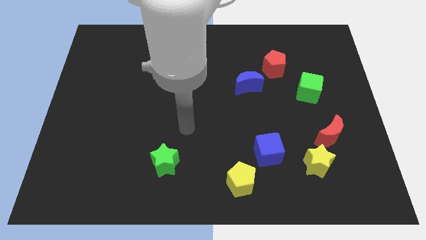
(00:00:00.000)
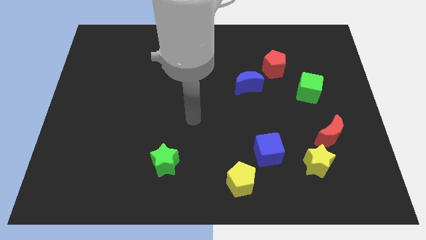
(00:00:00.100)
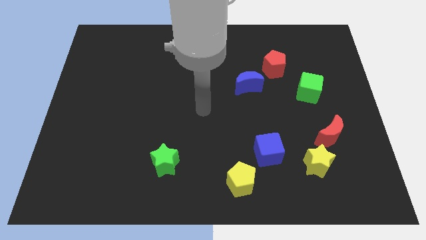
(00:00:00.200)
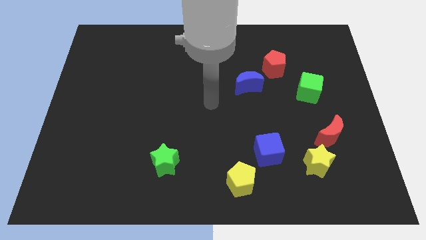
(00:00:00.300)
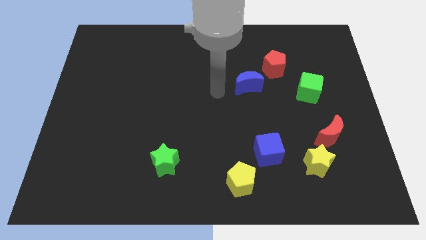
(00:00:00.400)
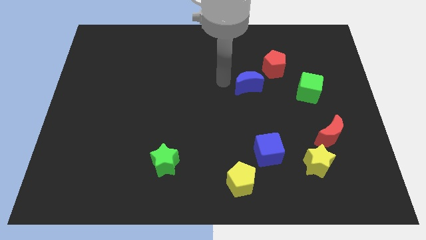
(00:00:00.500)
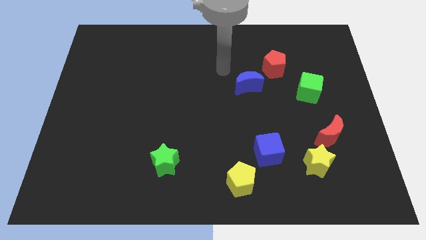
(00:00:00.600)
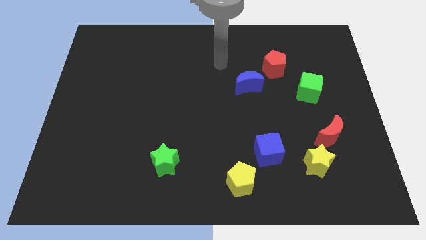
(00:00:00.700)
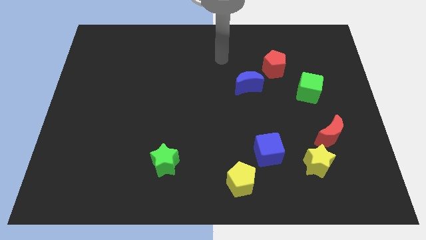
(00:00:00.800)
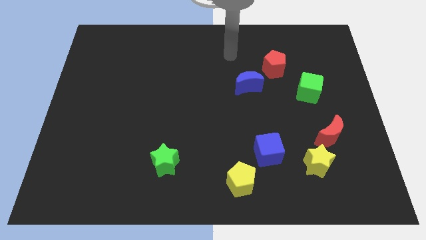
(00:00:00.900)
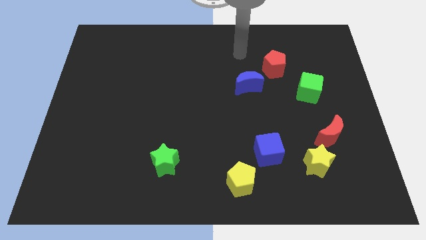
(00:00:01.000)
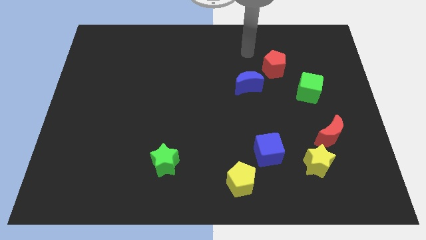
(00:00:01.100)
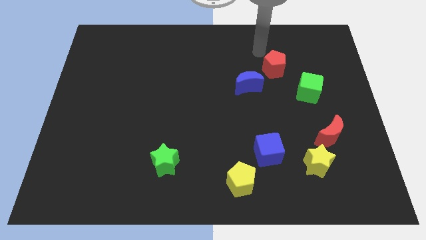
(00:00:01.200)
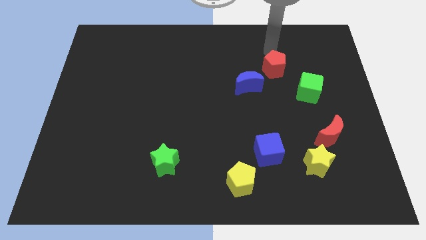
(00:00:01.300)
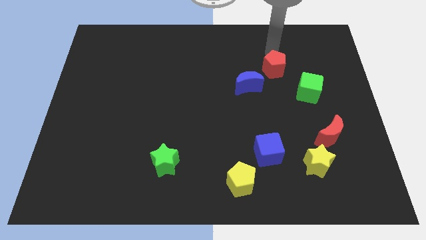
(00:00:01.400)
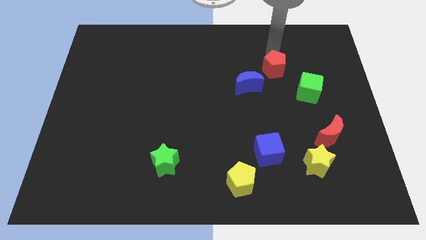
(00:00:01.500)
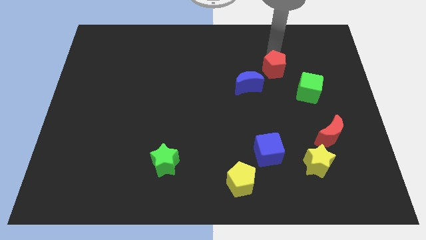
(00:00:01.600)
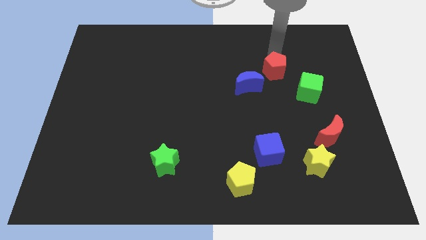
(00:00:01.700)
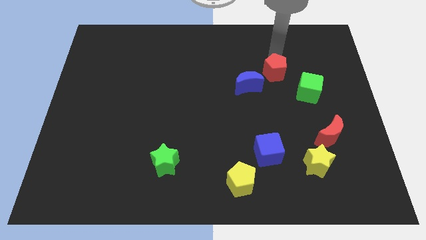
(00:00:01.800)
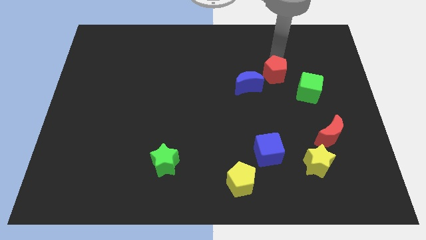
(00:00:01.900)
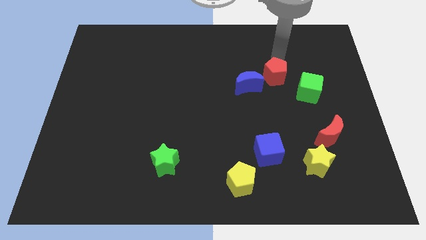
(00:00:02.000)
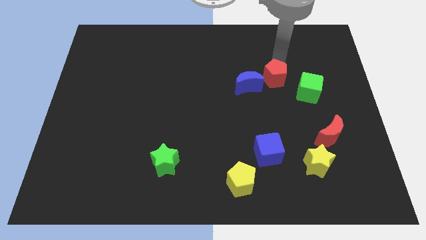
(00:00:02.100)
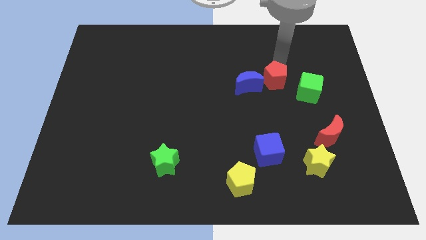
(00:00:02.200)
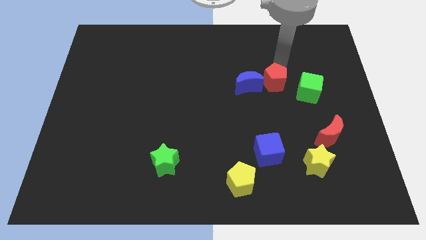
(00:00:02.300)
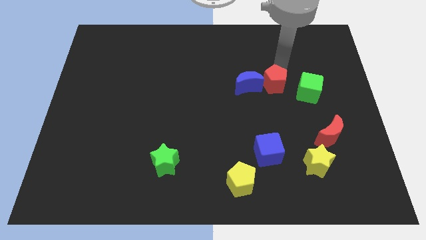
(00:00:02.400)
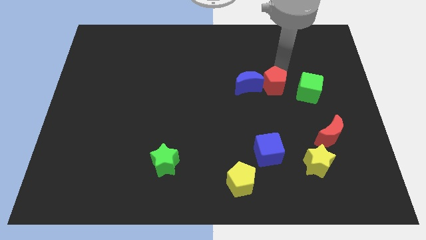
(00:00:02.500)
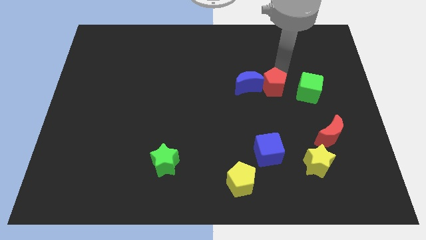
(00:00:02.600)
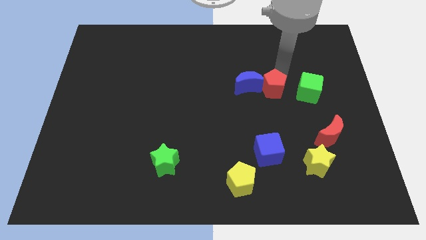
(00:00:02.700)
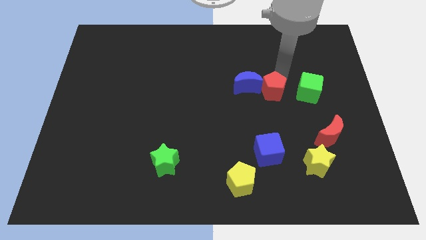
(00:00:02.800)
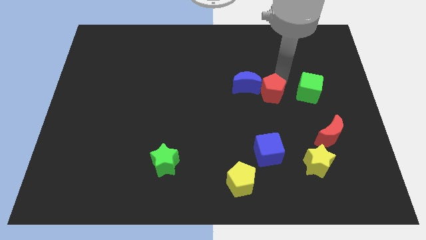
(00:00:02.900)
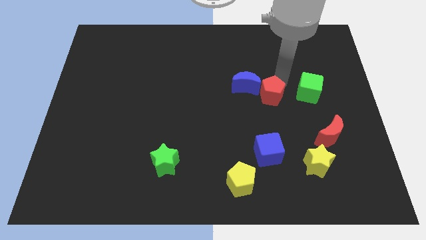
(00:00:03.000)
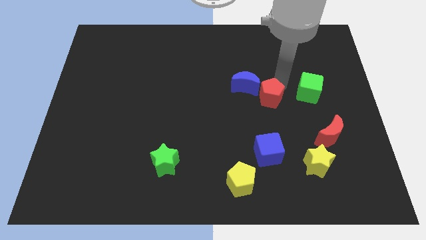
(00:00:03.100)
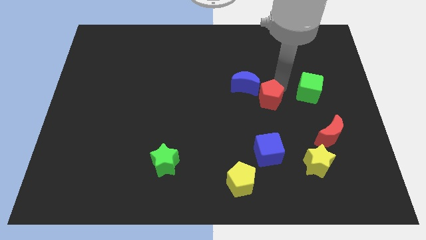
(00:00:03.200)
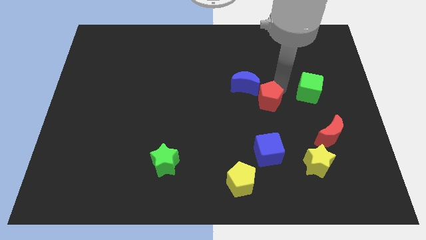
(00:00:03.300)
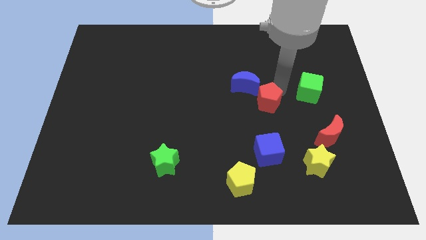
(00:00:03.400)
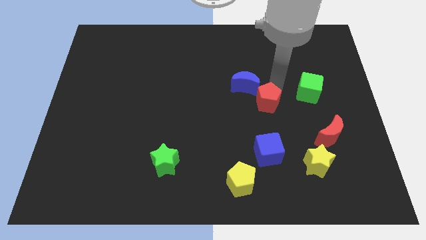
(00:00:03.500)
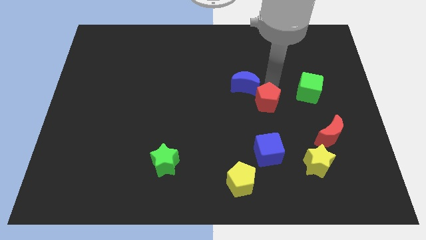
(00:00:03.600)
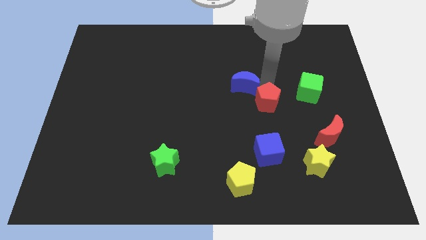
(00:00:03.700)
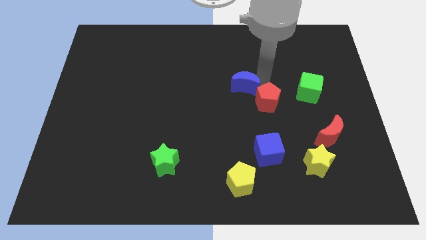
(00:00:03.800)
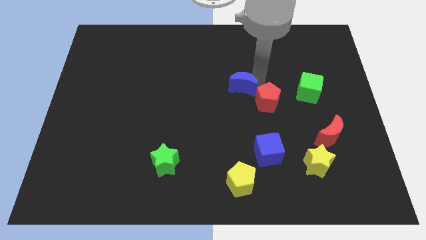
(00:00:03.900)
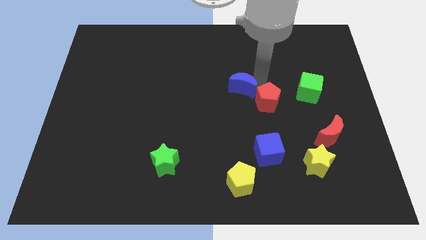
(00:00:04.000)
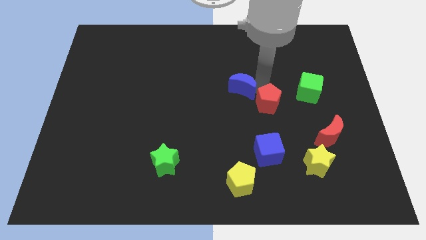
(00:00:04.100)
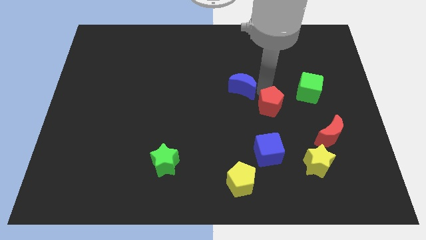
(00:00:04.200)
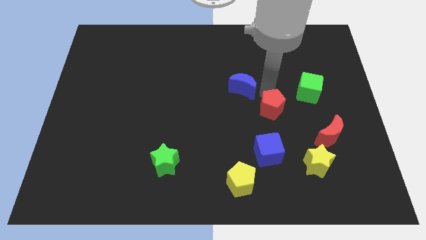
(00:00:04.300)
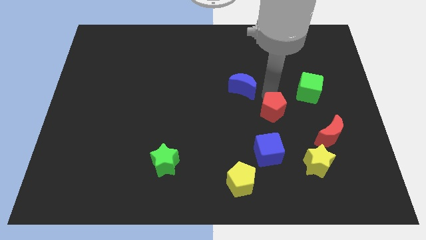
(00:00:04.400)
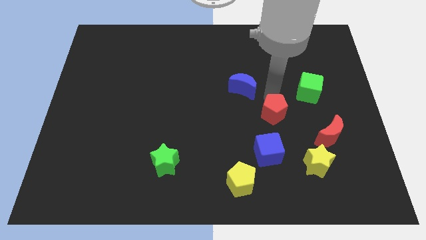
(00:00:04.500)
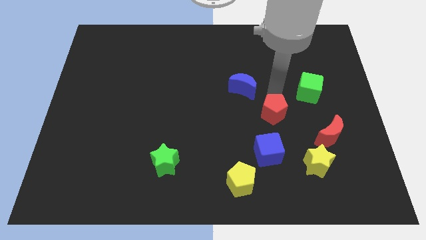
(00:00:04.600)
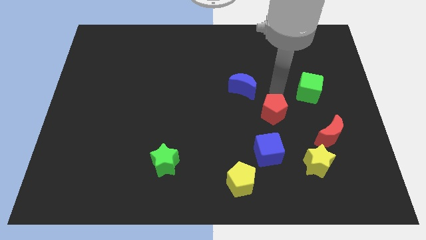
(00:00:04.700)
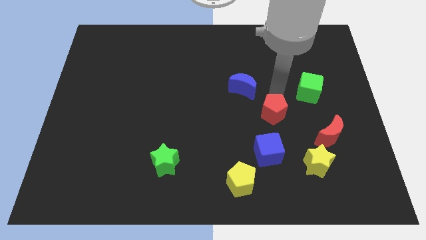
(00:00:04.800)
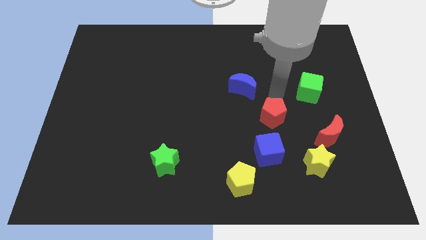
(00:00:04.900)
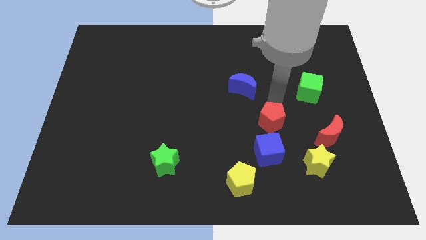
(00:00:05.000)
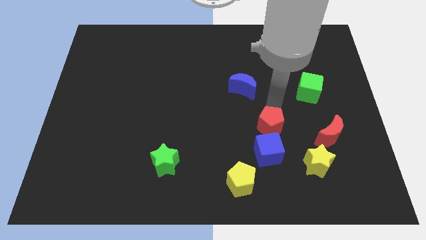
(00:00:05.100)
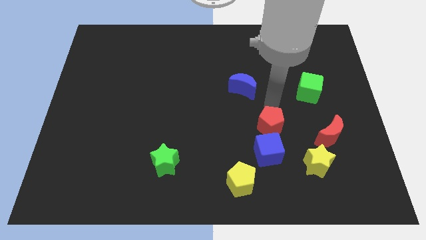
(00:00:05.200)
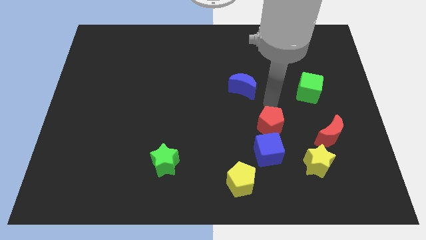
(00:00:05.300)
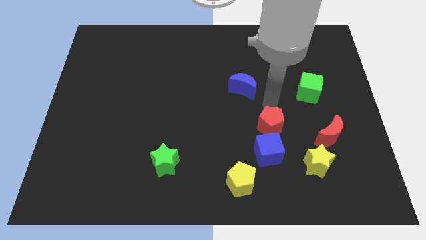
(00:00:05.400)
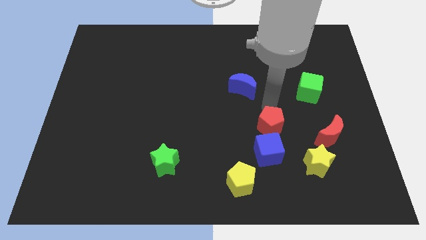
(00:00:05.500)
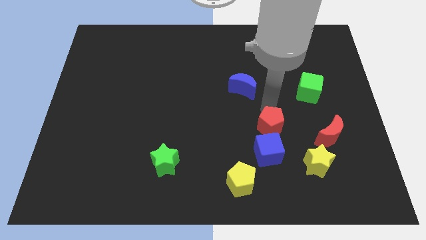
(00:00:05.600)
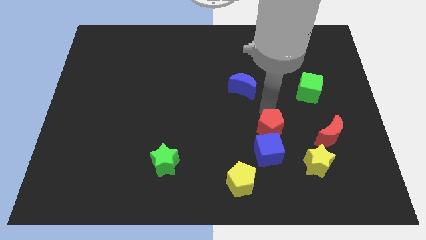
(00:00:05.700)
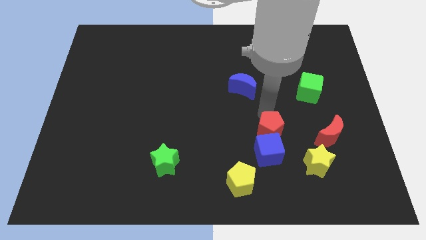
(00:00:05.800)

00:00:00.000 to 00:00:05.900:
put the red pentagon to the blue cube

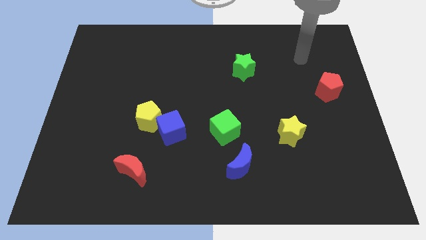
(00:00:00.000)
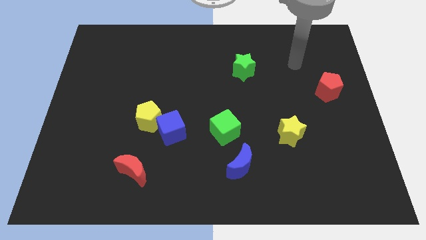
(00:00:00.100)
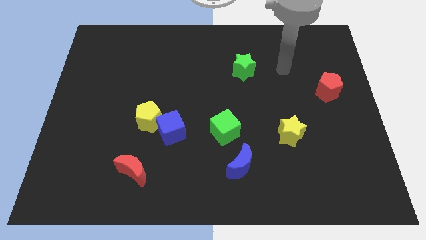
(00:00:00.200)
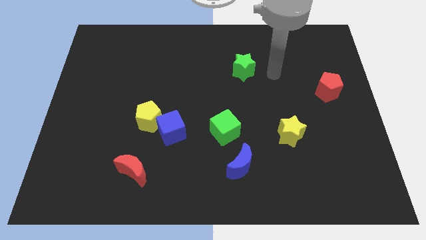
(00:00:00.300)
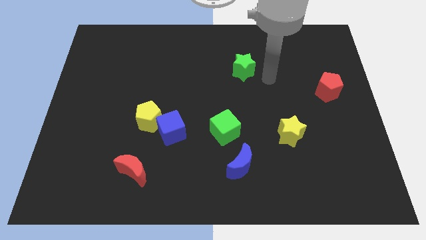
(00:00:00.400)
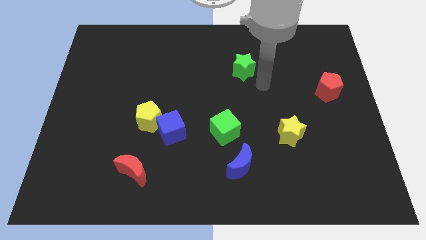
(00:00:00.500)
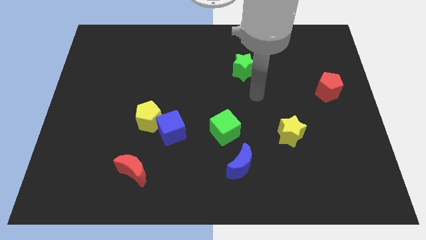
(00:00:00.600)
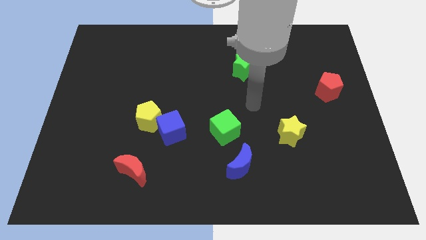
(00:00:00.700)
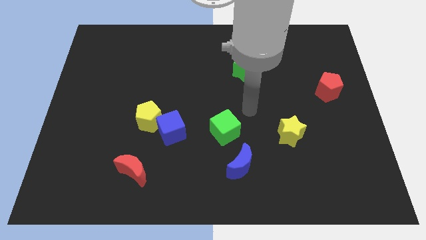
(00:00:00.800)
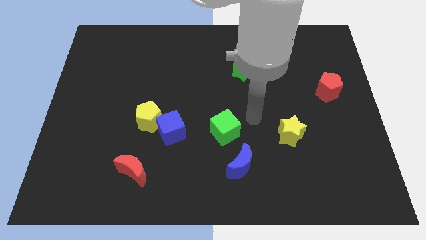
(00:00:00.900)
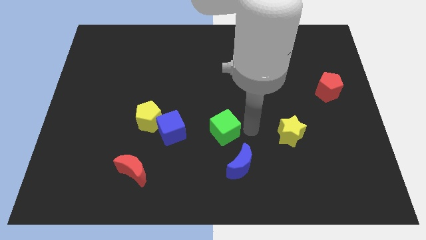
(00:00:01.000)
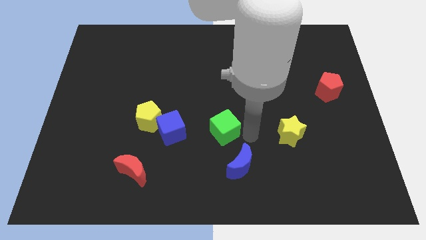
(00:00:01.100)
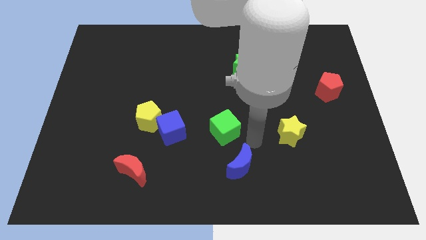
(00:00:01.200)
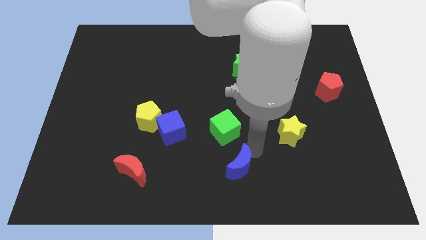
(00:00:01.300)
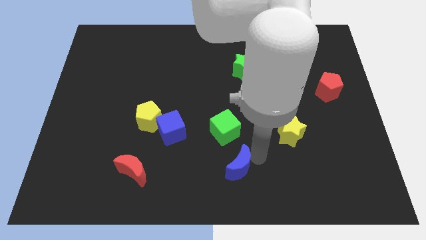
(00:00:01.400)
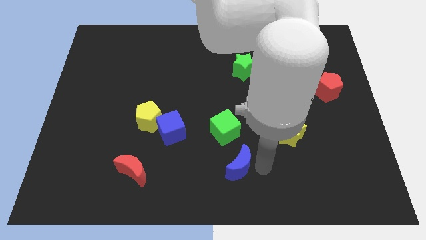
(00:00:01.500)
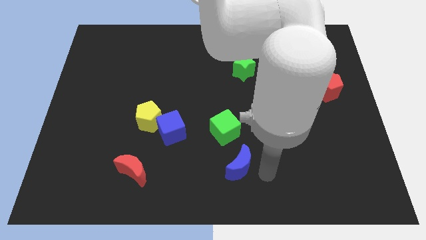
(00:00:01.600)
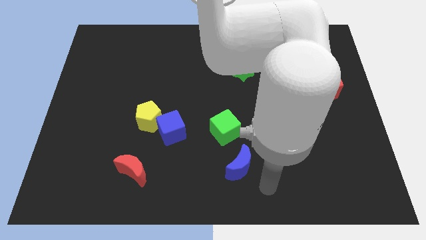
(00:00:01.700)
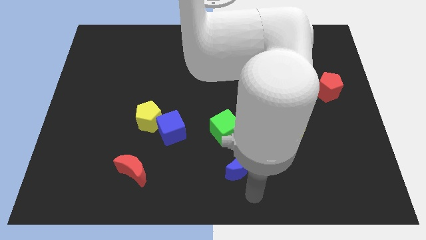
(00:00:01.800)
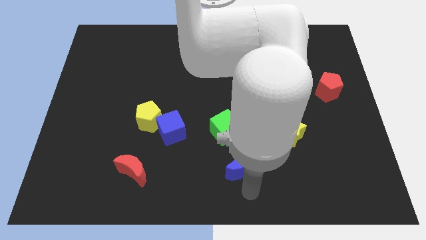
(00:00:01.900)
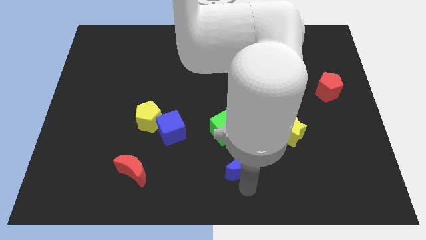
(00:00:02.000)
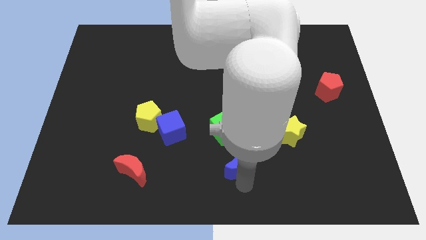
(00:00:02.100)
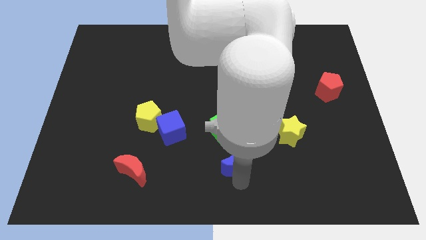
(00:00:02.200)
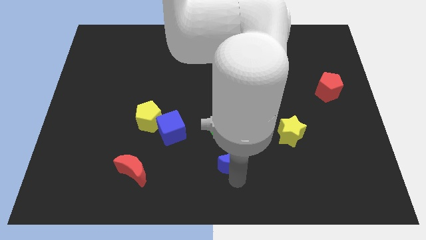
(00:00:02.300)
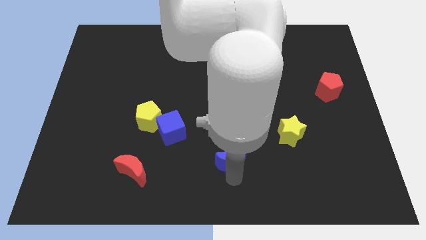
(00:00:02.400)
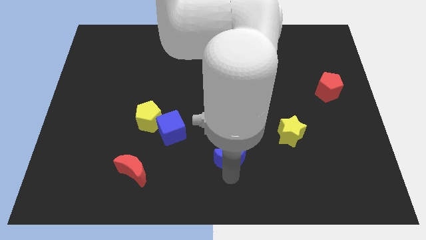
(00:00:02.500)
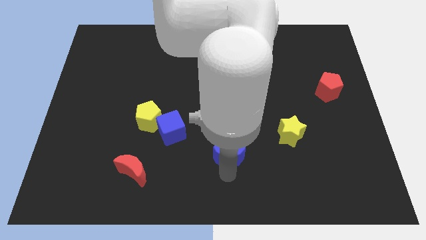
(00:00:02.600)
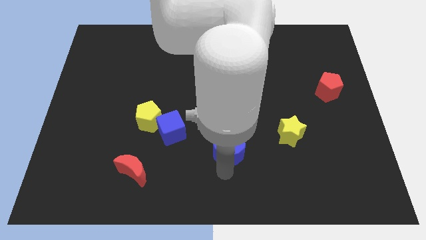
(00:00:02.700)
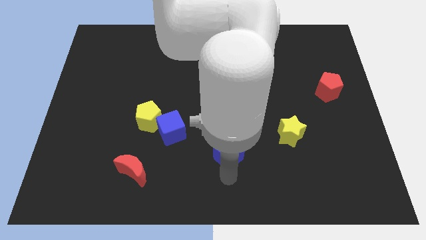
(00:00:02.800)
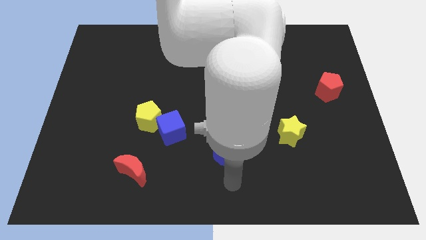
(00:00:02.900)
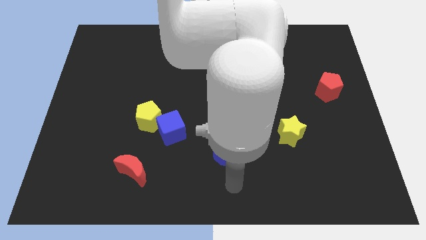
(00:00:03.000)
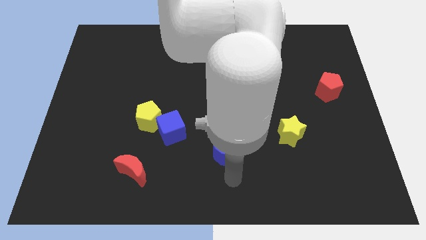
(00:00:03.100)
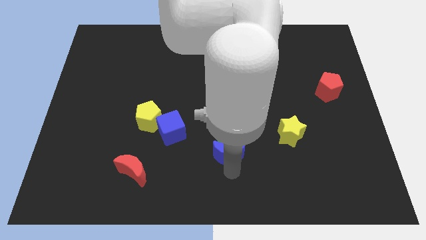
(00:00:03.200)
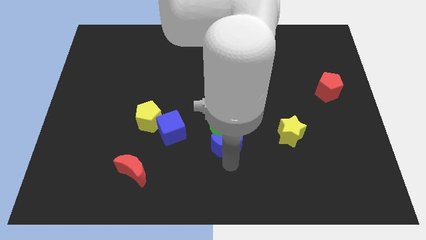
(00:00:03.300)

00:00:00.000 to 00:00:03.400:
put the blue moon next to the green cube
